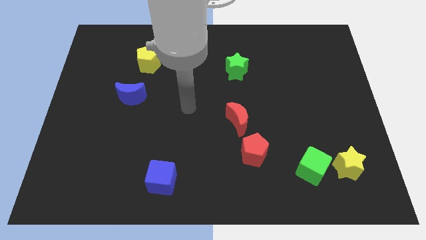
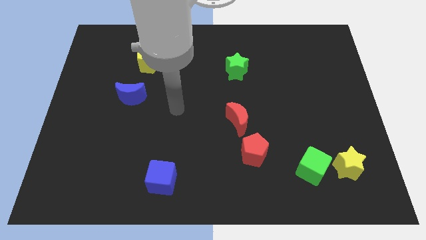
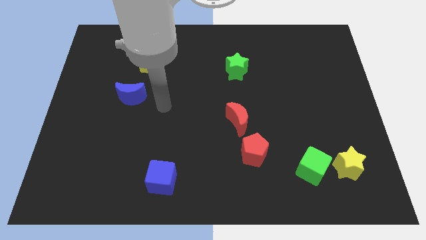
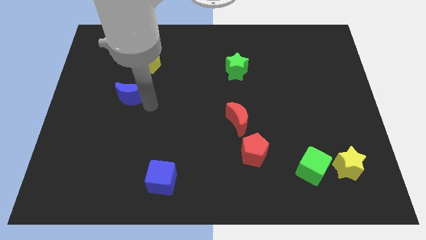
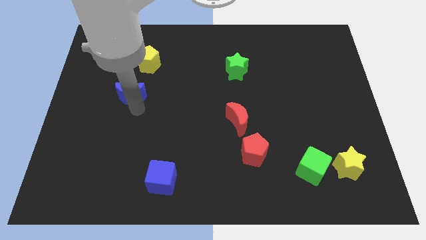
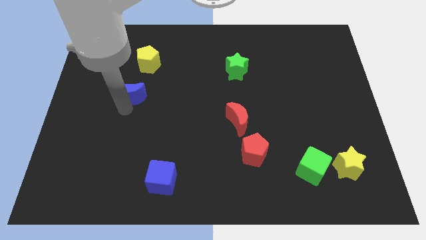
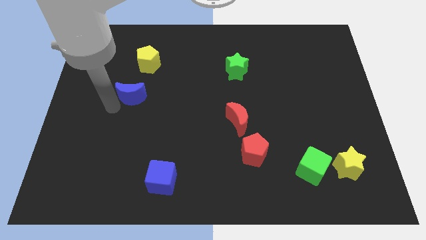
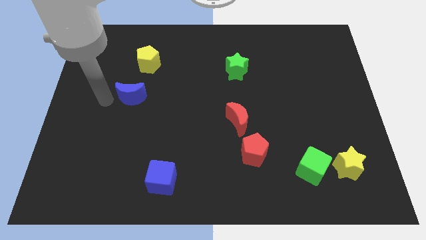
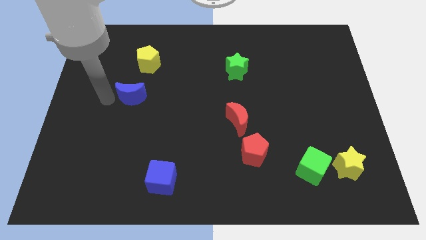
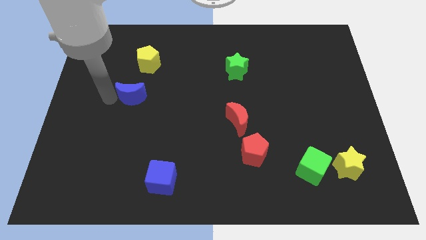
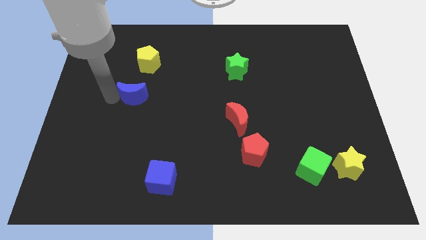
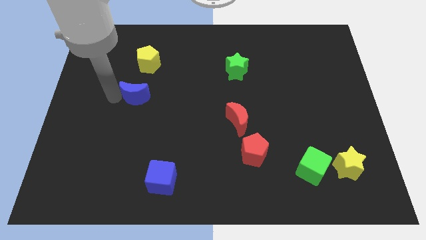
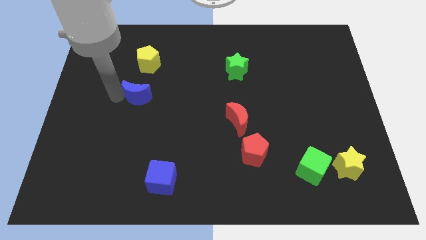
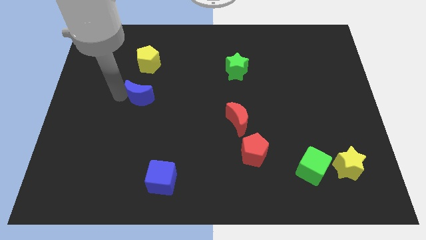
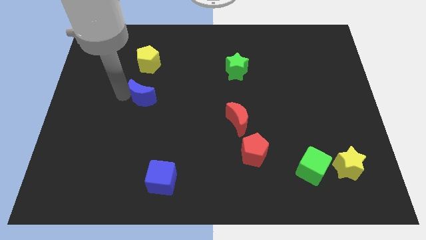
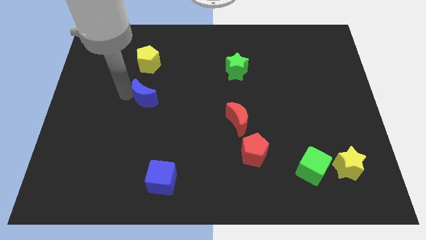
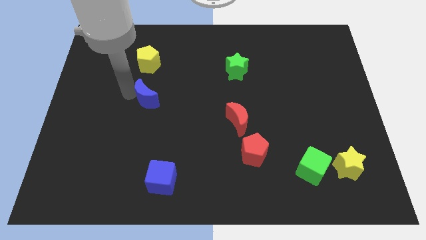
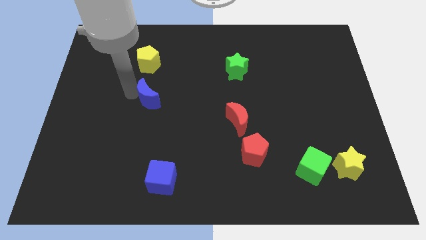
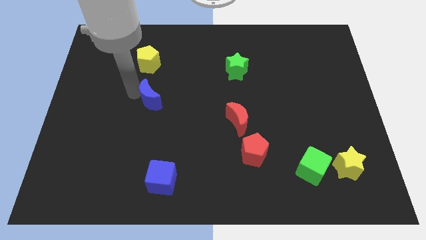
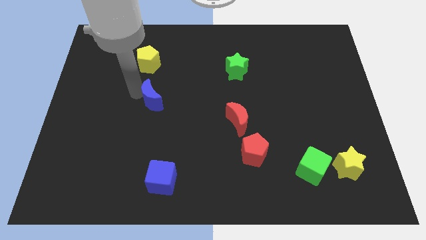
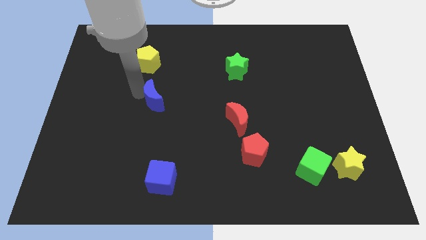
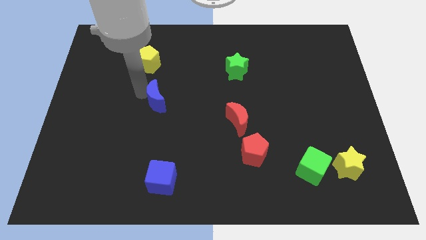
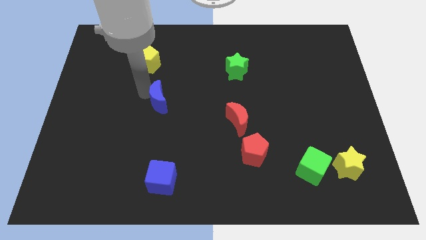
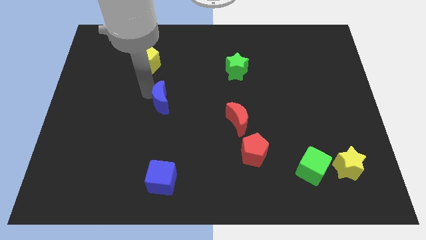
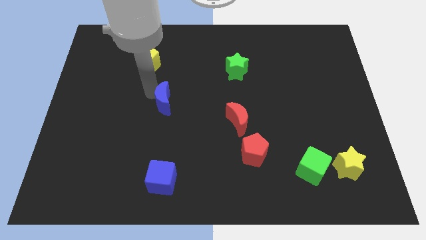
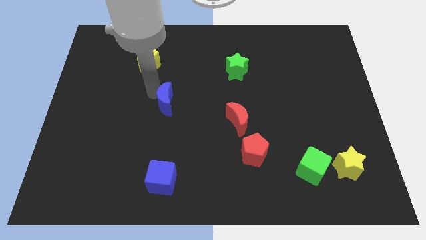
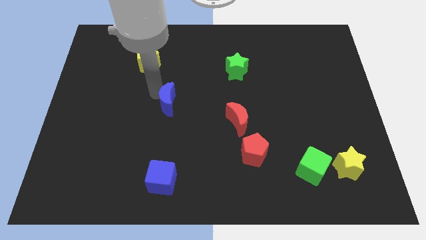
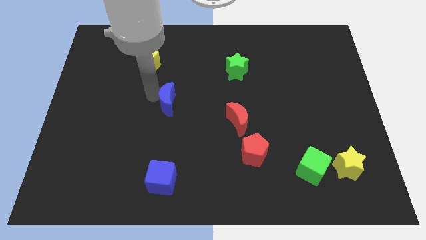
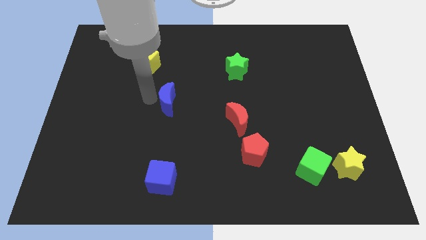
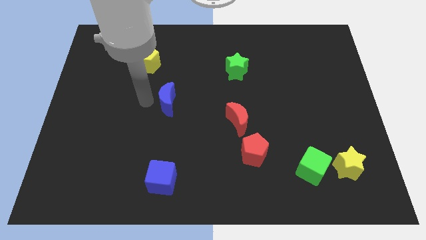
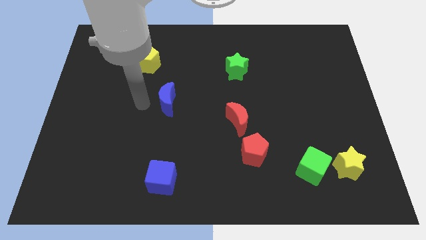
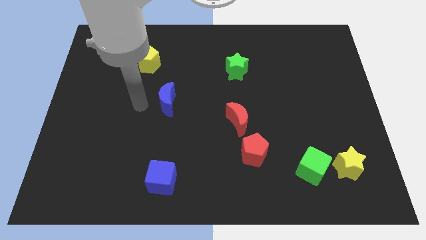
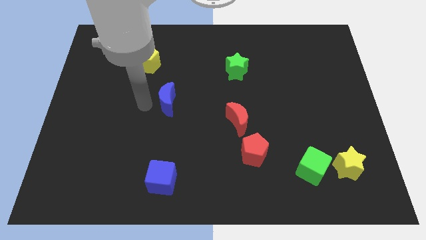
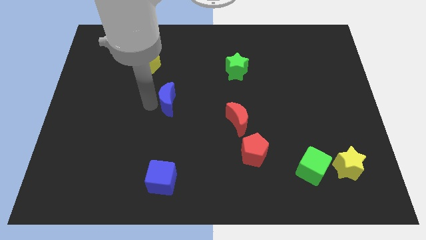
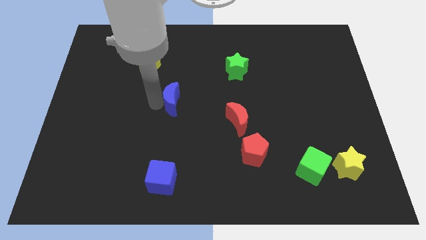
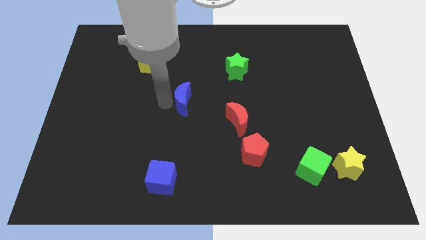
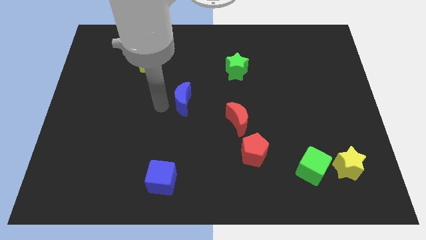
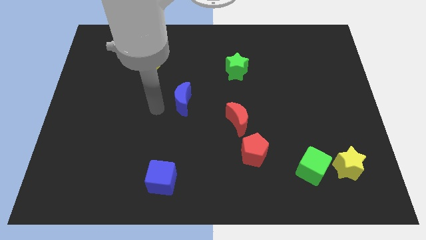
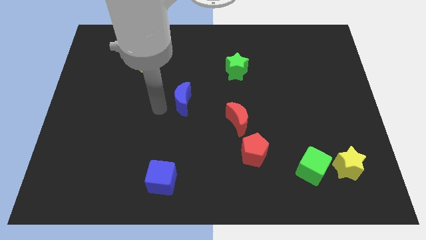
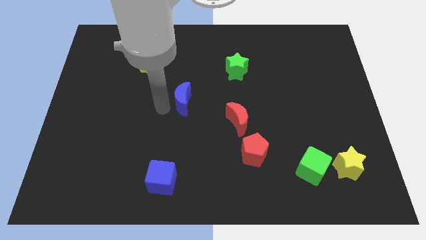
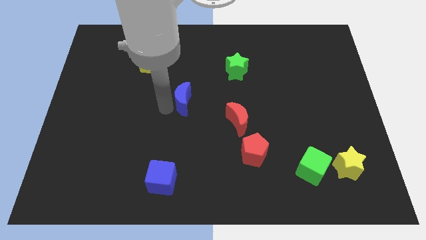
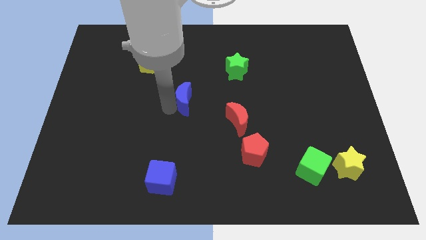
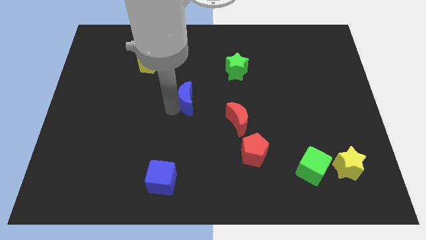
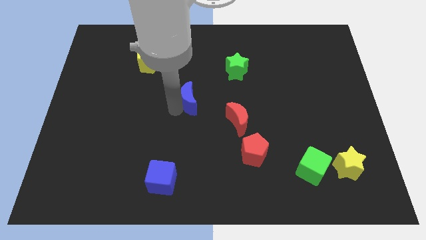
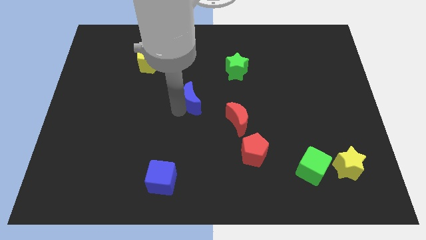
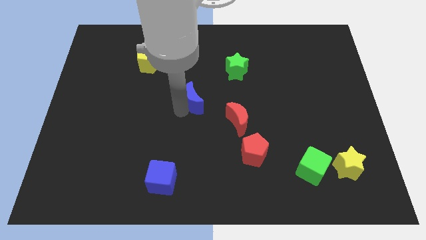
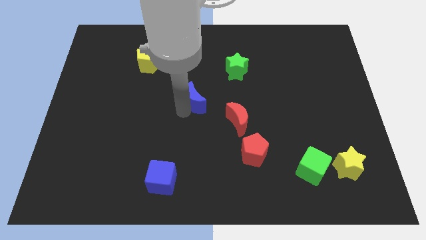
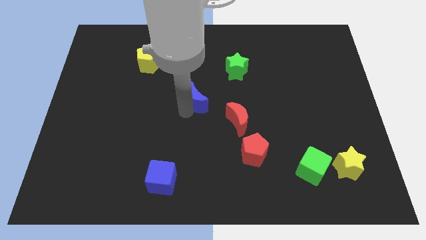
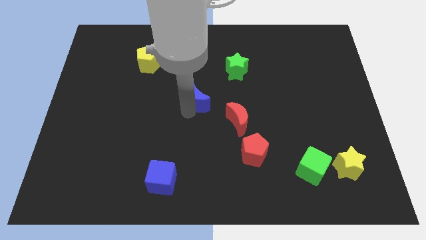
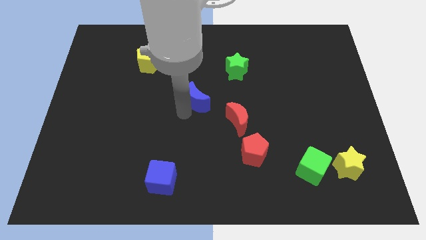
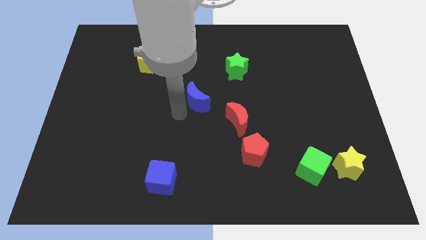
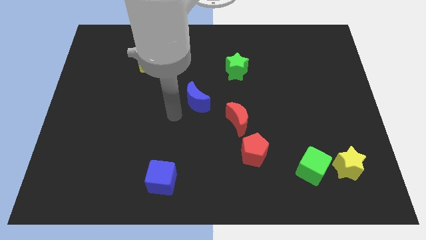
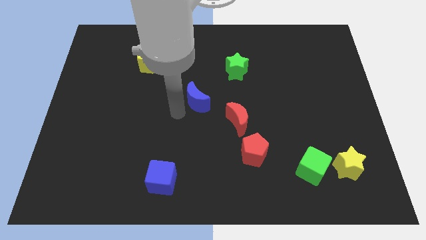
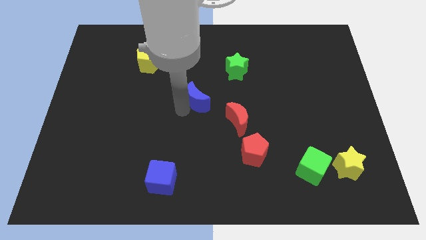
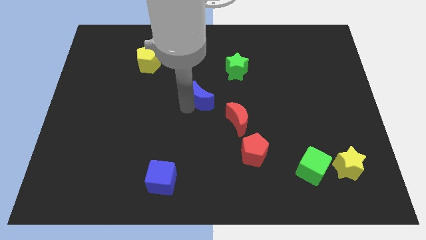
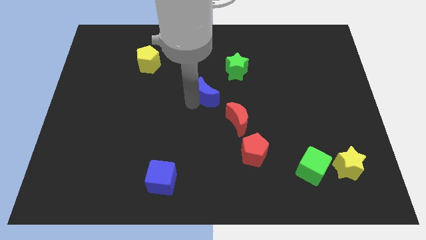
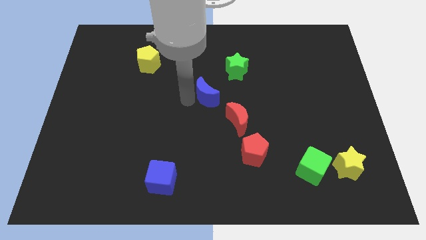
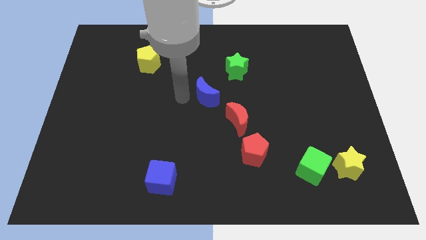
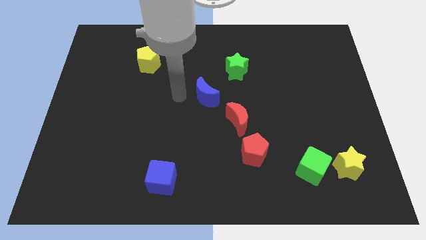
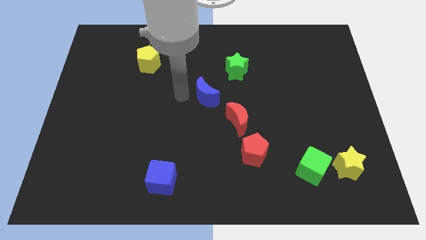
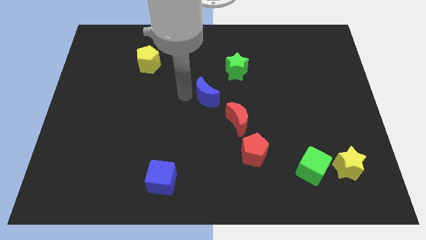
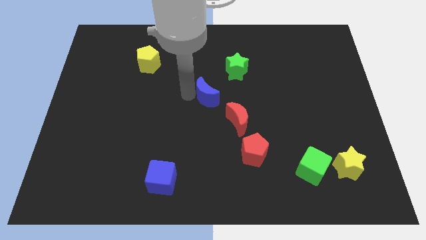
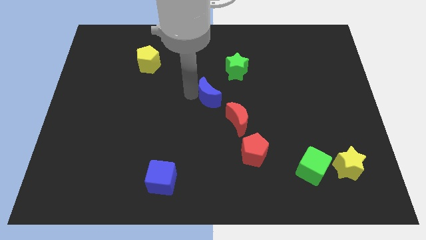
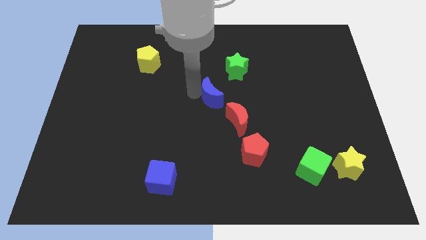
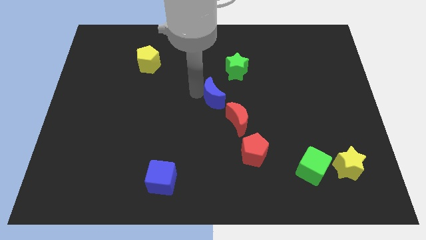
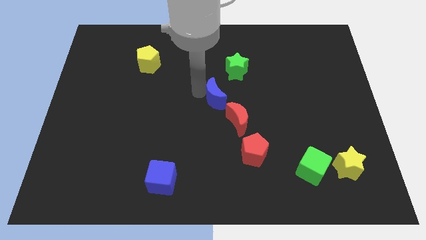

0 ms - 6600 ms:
push the blue moon to the right

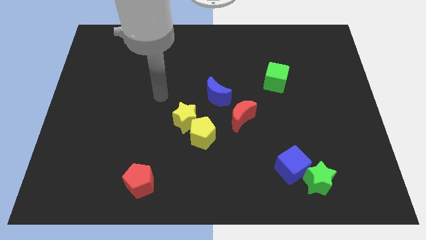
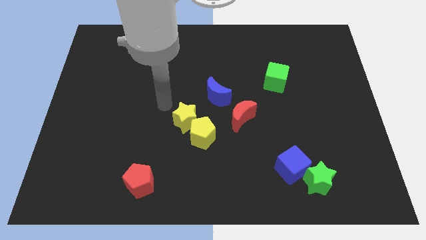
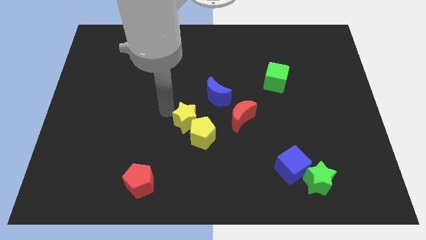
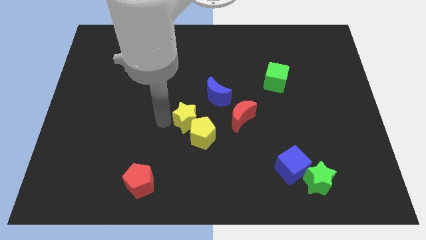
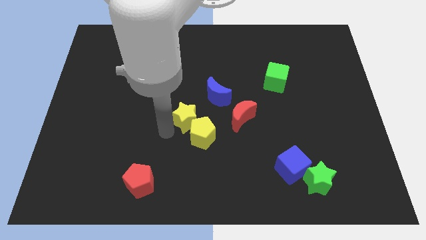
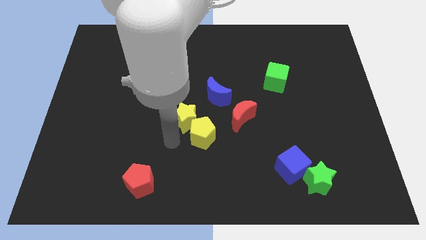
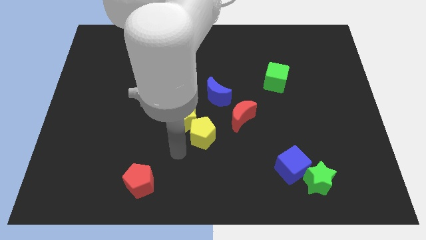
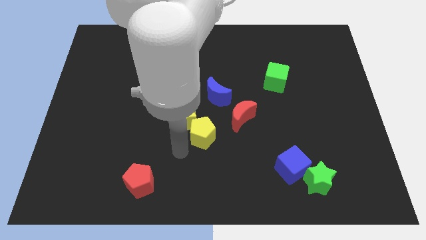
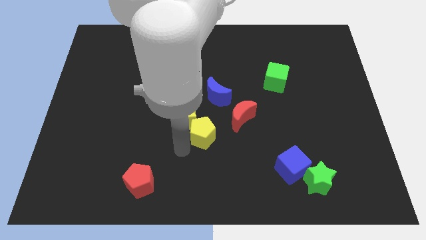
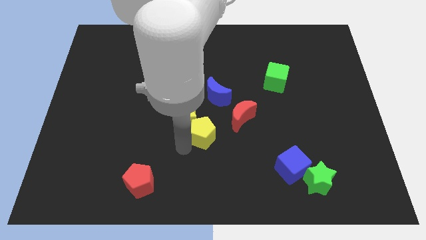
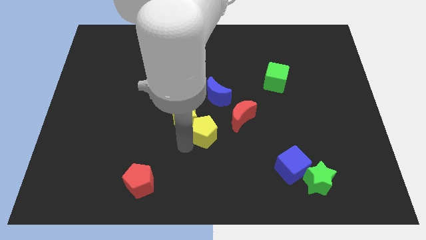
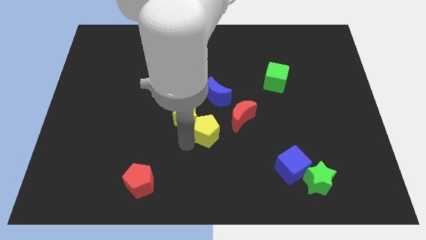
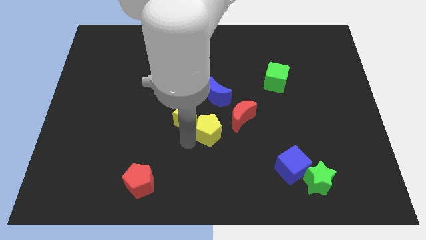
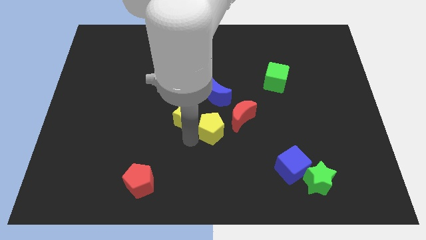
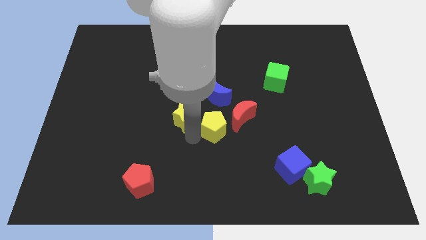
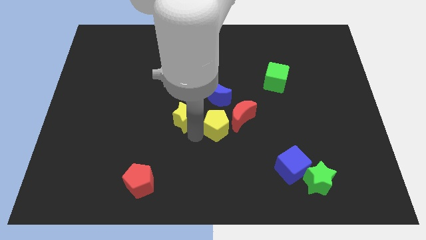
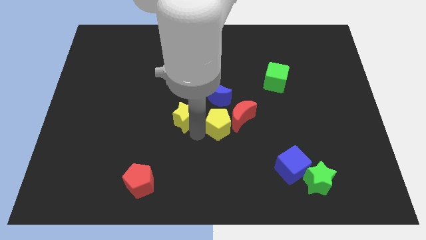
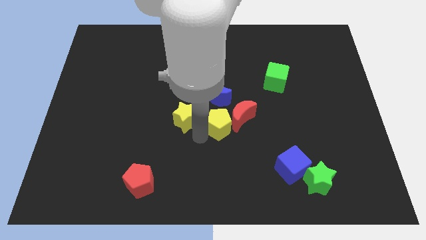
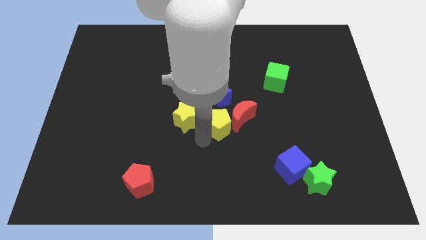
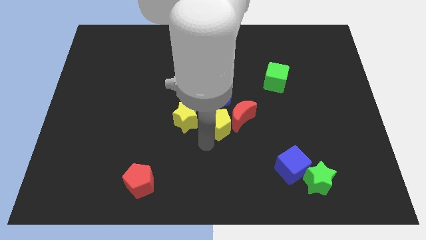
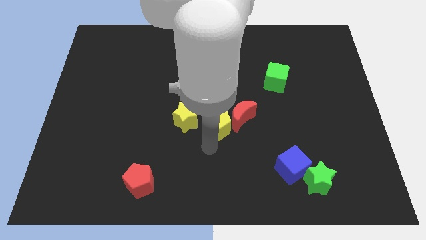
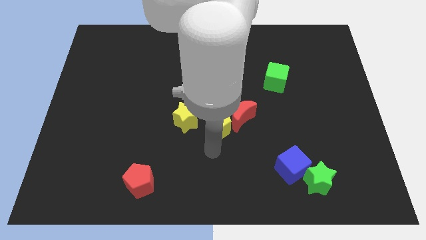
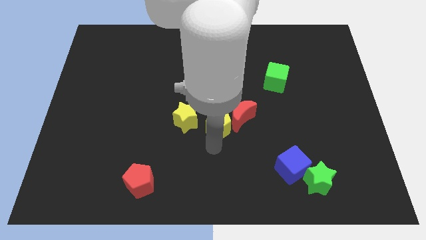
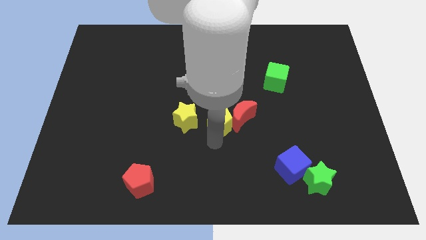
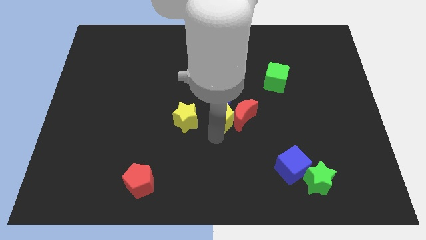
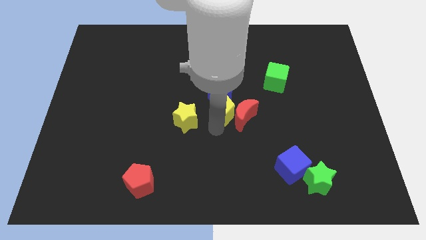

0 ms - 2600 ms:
slightly move the yellow pentagon up and then to the right
